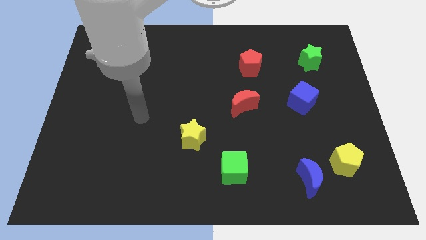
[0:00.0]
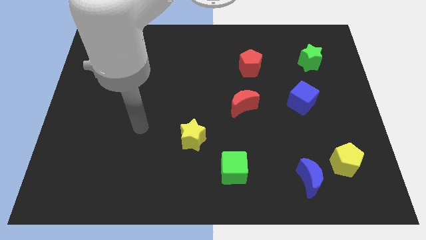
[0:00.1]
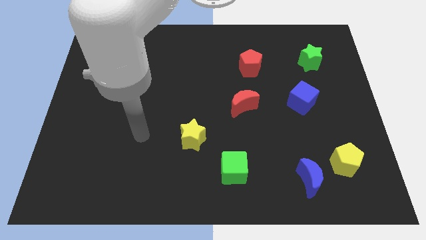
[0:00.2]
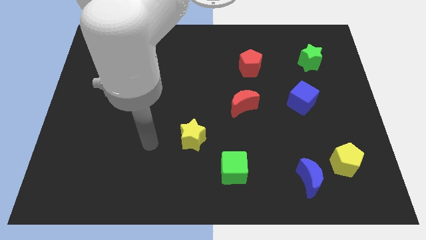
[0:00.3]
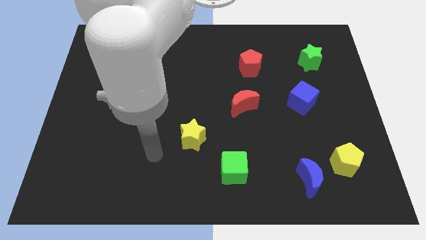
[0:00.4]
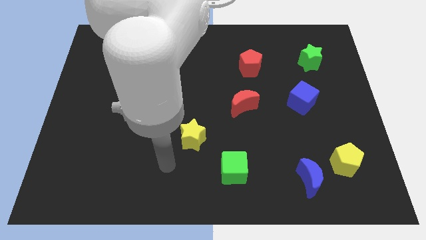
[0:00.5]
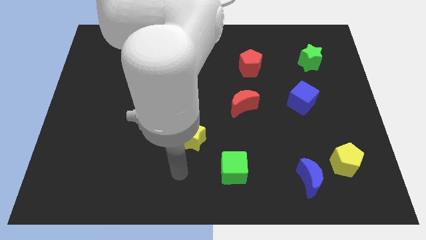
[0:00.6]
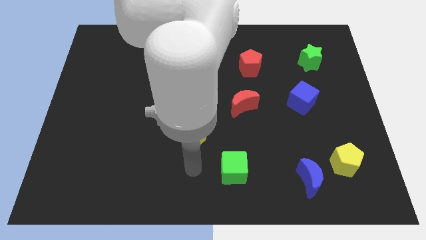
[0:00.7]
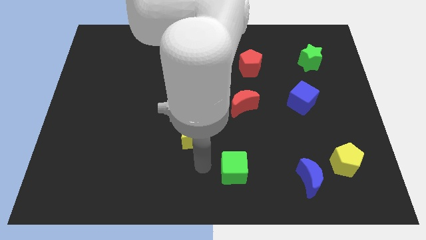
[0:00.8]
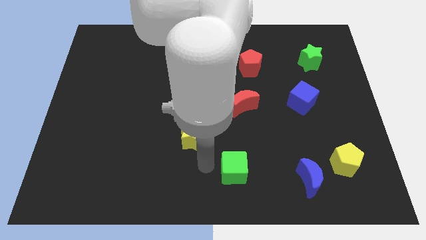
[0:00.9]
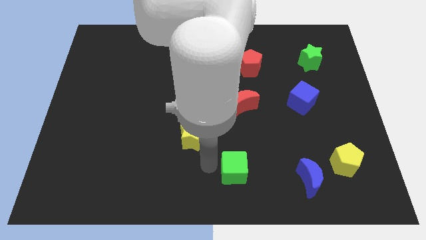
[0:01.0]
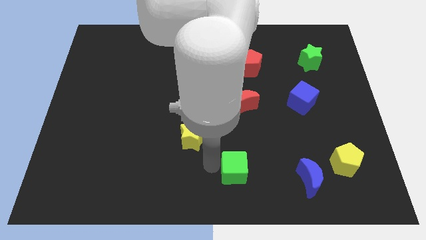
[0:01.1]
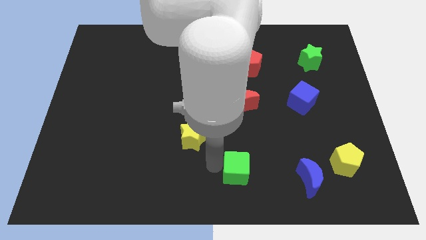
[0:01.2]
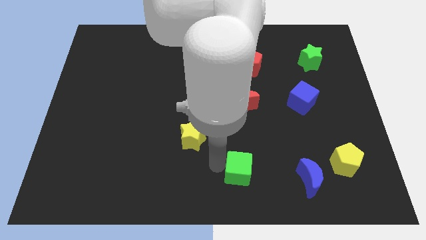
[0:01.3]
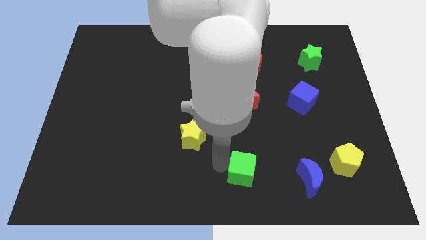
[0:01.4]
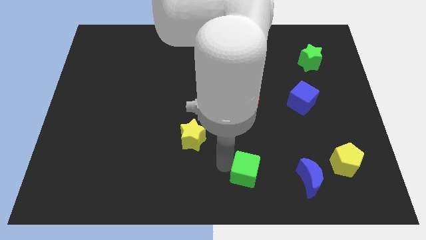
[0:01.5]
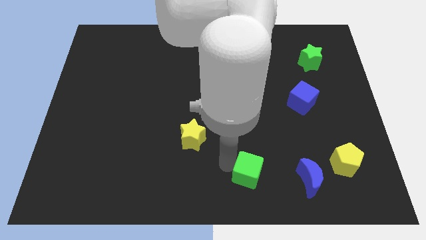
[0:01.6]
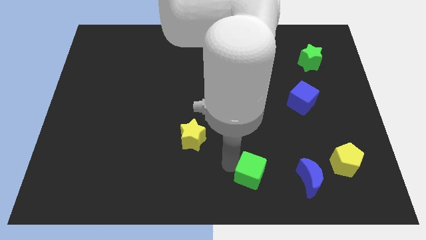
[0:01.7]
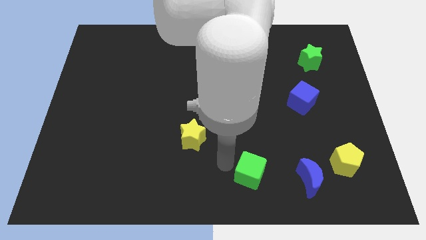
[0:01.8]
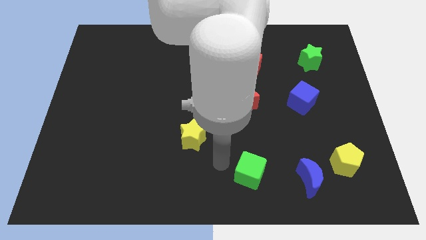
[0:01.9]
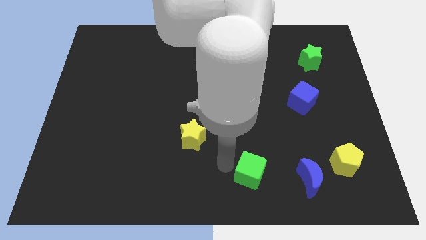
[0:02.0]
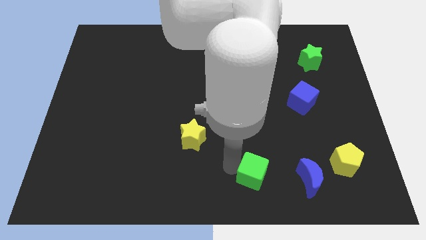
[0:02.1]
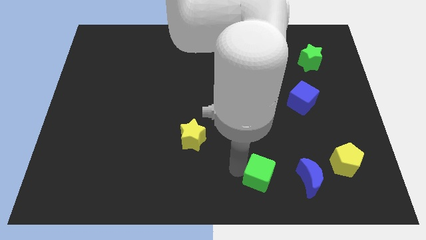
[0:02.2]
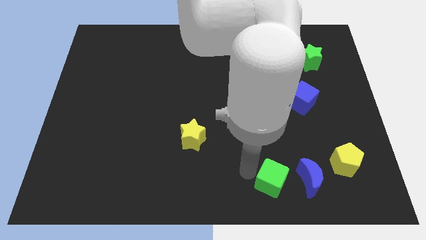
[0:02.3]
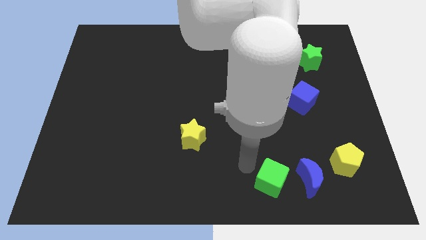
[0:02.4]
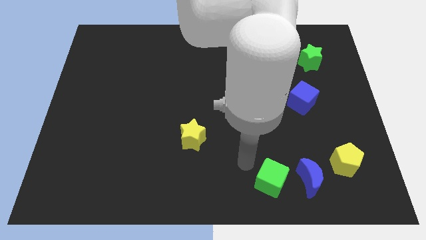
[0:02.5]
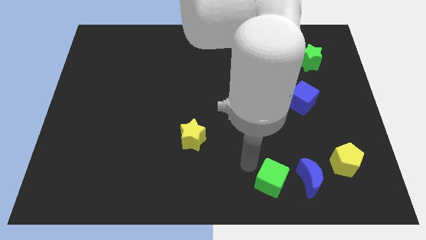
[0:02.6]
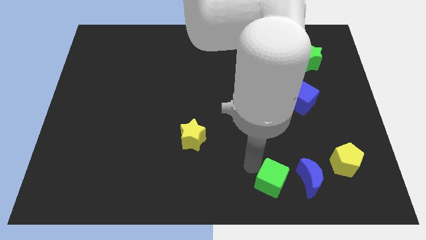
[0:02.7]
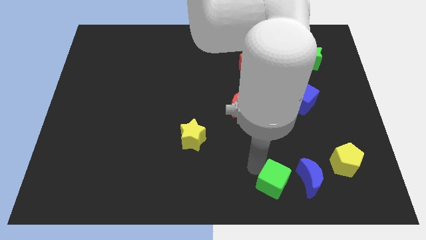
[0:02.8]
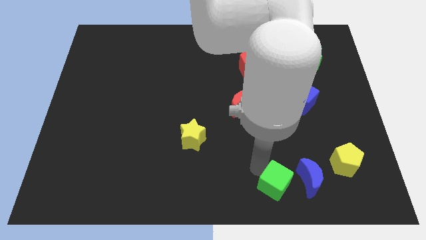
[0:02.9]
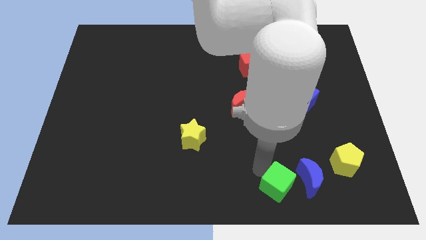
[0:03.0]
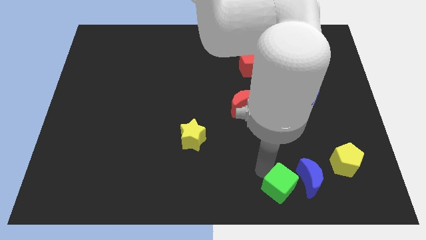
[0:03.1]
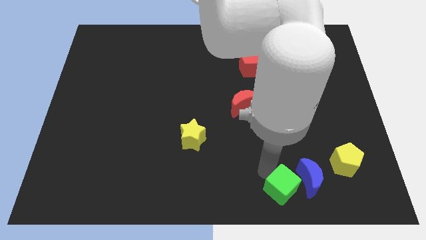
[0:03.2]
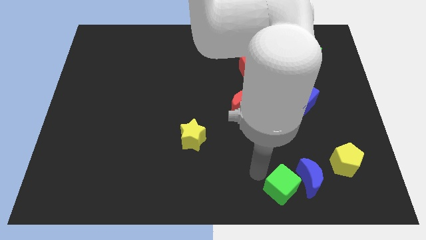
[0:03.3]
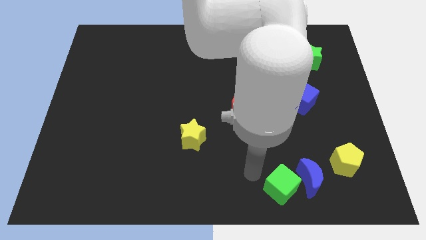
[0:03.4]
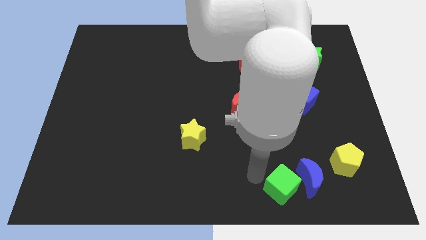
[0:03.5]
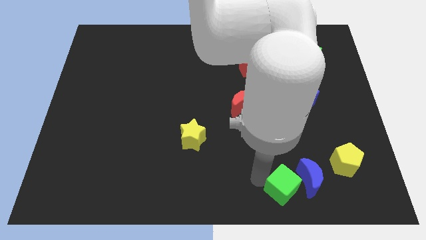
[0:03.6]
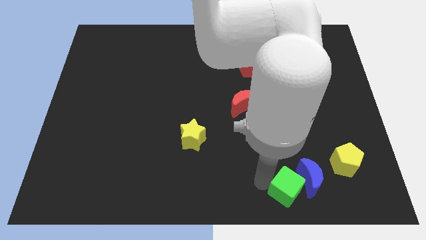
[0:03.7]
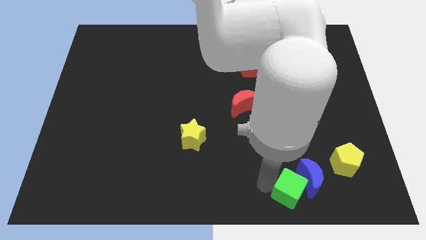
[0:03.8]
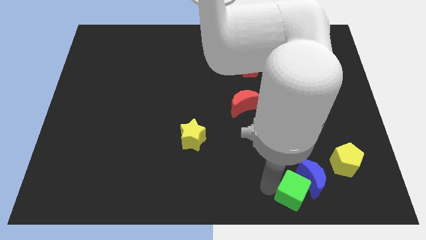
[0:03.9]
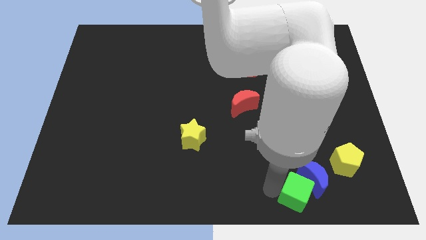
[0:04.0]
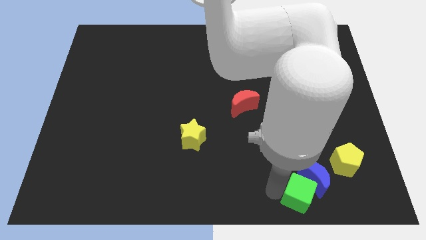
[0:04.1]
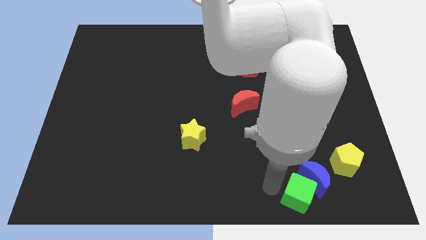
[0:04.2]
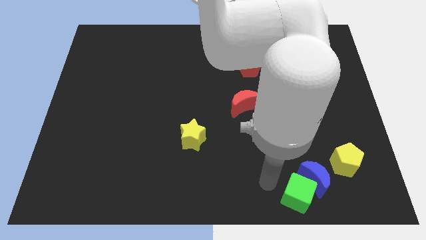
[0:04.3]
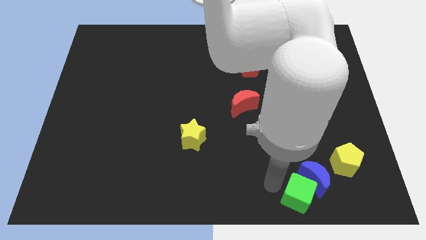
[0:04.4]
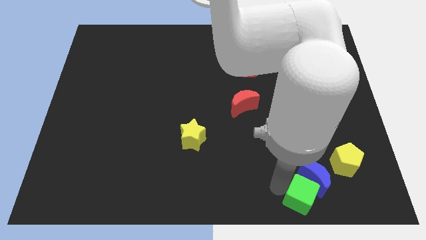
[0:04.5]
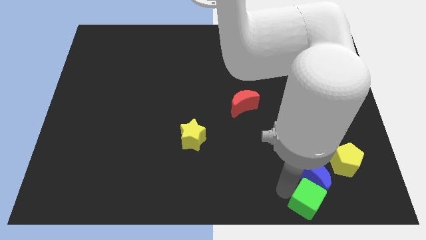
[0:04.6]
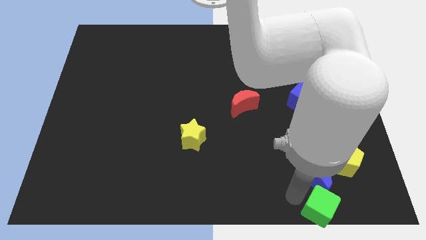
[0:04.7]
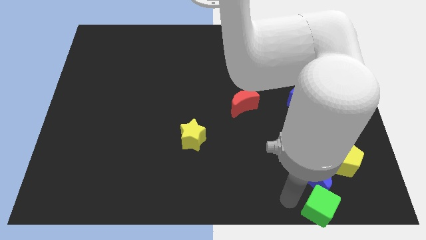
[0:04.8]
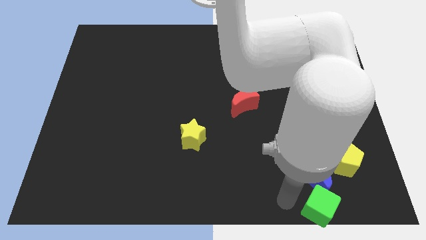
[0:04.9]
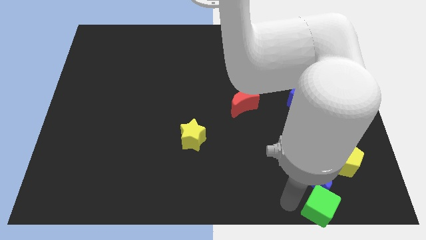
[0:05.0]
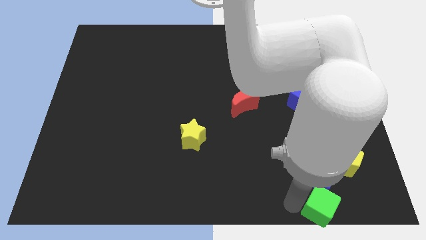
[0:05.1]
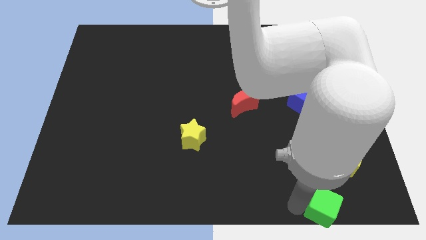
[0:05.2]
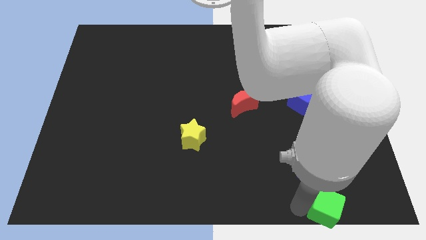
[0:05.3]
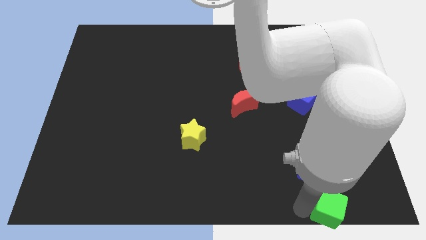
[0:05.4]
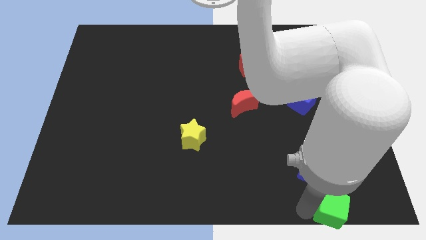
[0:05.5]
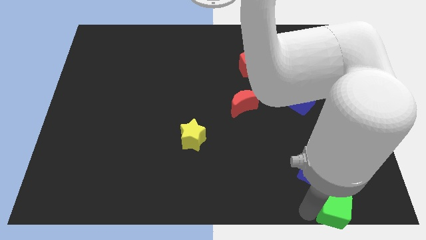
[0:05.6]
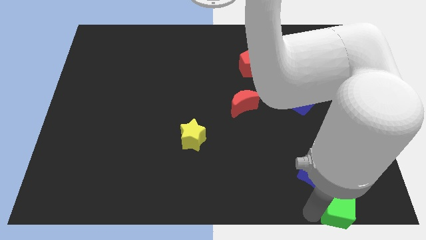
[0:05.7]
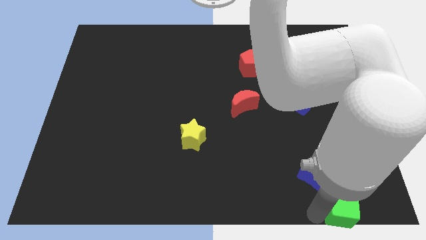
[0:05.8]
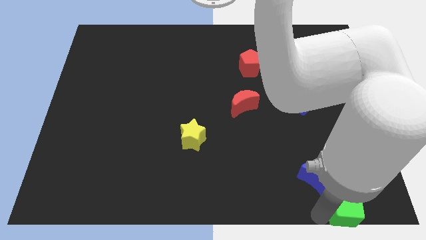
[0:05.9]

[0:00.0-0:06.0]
slide the green cube to the bottom right of the board

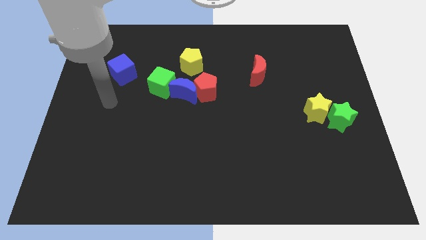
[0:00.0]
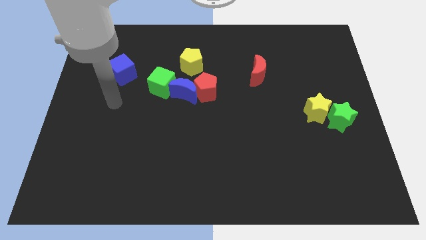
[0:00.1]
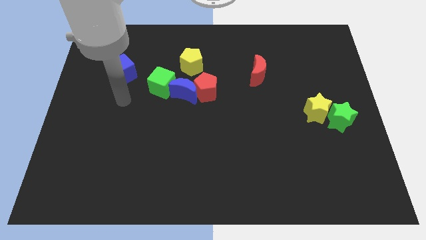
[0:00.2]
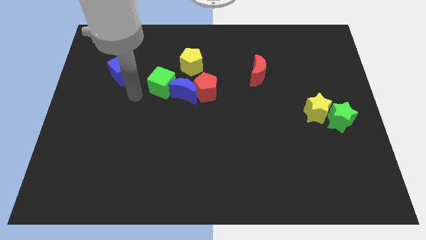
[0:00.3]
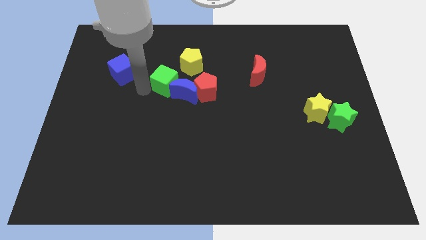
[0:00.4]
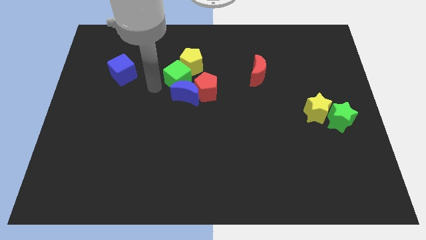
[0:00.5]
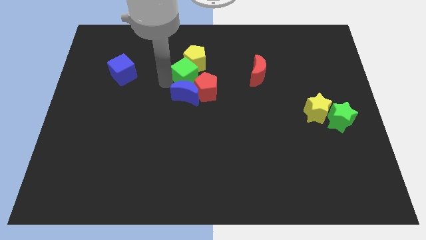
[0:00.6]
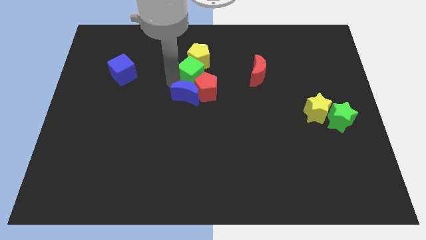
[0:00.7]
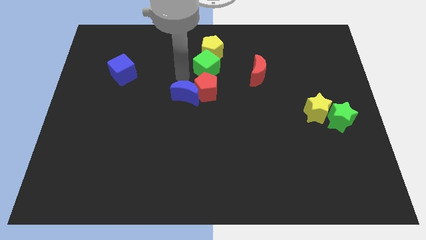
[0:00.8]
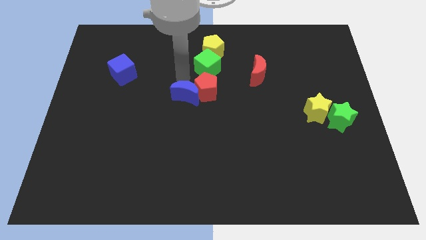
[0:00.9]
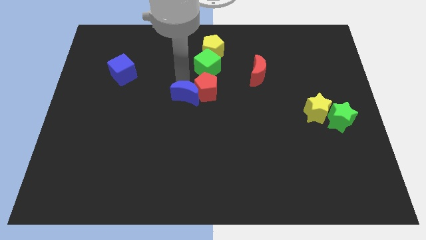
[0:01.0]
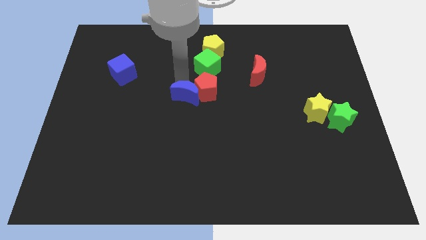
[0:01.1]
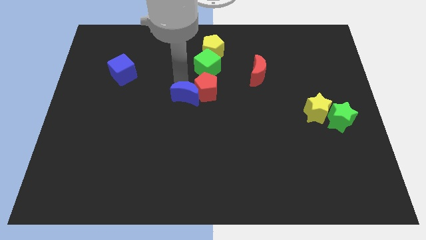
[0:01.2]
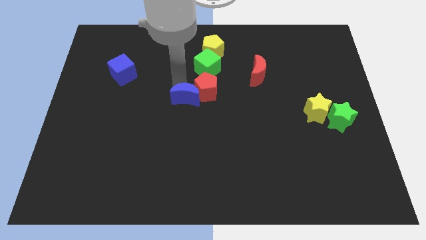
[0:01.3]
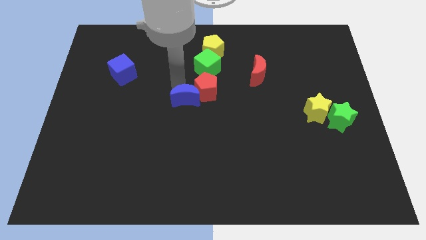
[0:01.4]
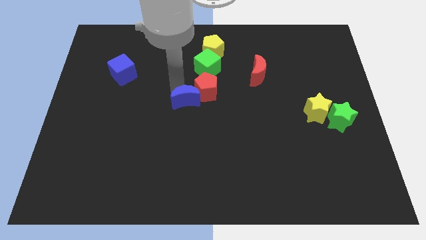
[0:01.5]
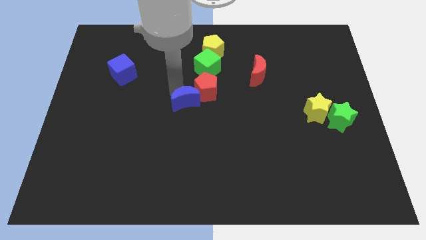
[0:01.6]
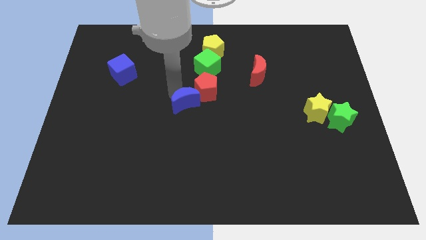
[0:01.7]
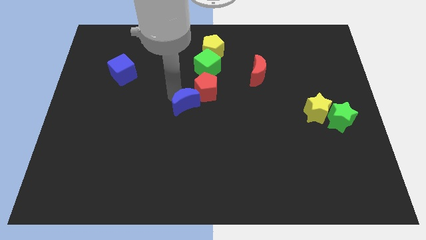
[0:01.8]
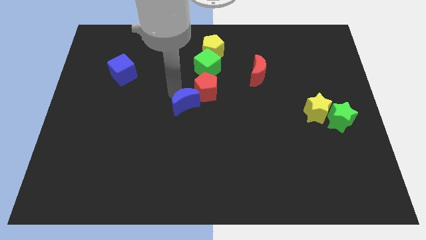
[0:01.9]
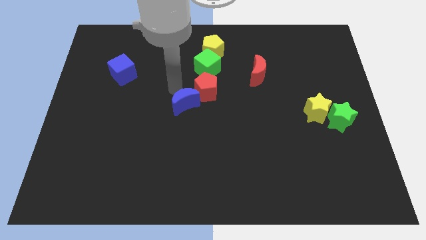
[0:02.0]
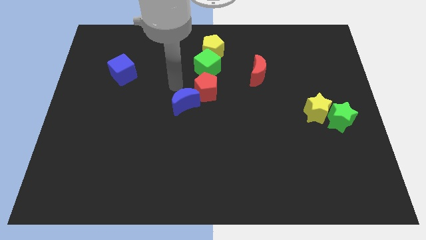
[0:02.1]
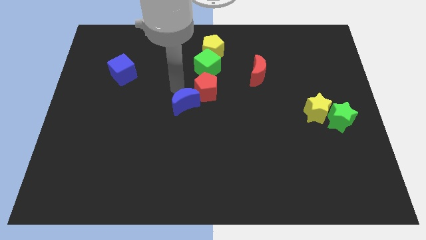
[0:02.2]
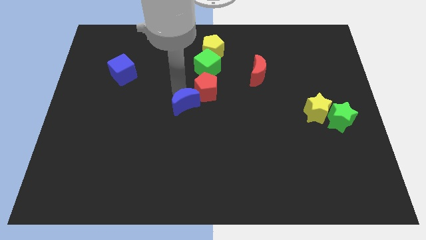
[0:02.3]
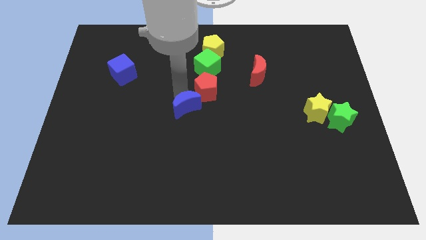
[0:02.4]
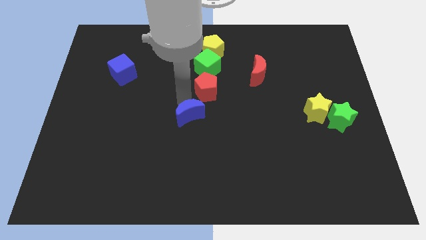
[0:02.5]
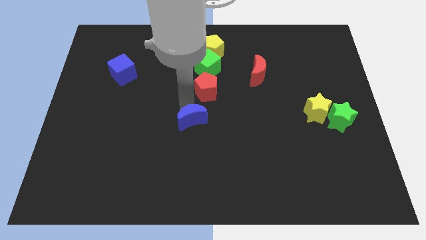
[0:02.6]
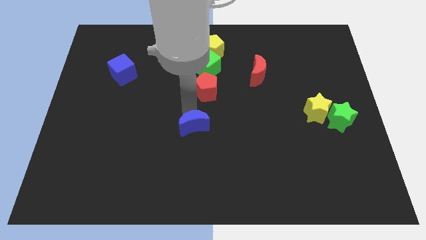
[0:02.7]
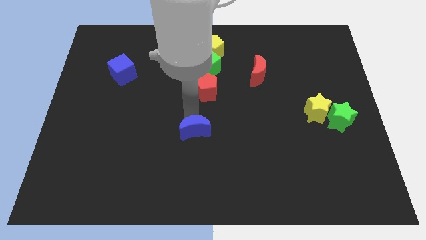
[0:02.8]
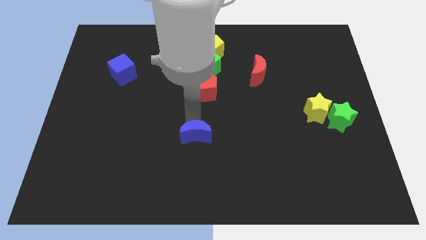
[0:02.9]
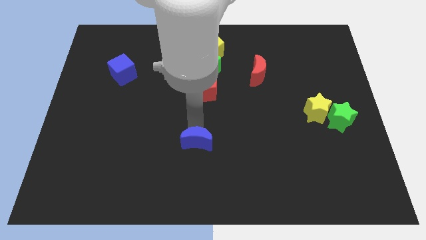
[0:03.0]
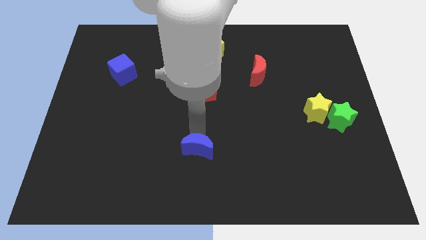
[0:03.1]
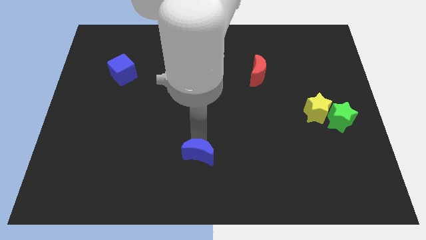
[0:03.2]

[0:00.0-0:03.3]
push the blue moon to the bottom side
